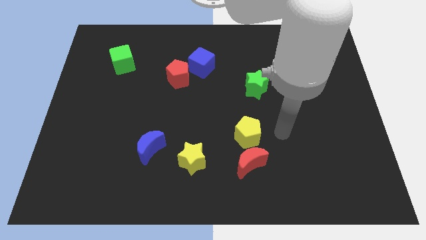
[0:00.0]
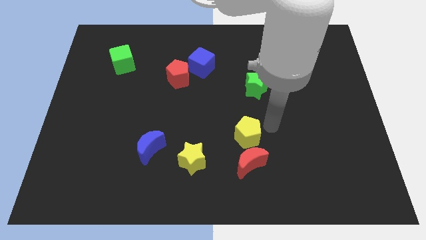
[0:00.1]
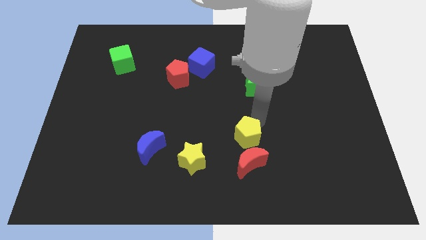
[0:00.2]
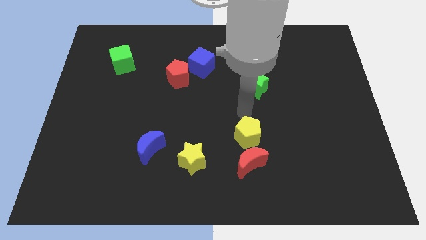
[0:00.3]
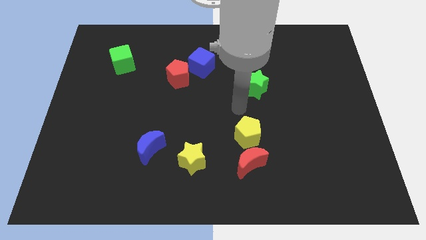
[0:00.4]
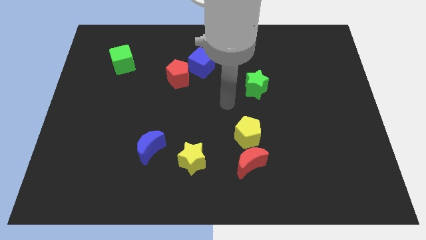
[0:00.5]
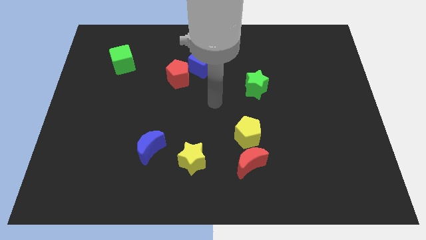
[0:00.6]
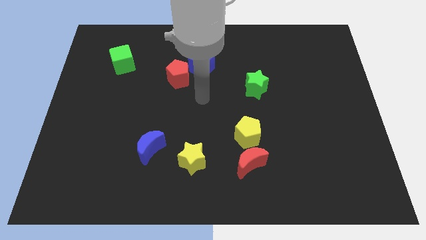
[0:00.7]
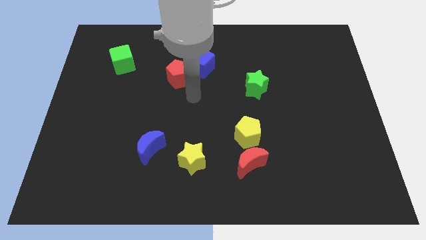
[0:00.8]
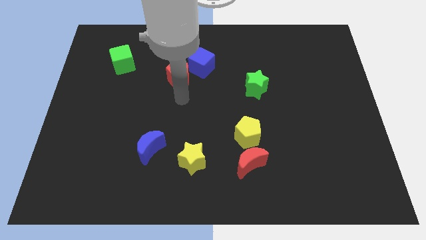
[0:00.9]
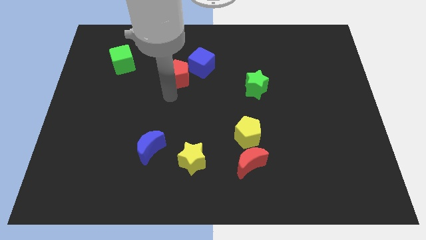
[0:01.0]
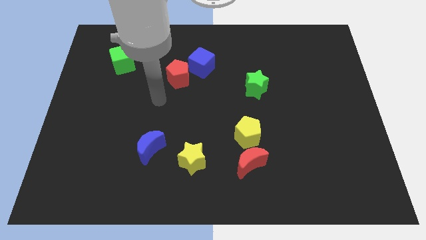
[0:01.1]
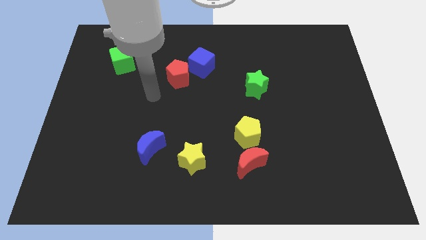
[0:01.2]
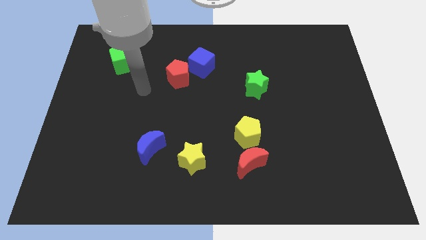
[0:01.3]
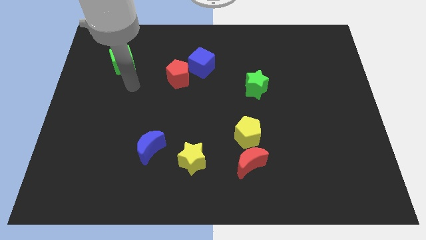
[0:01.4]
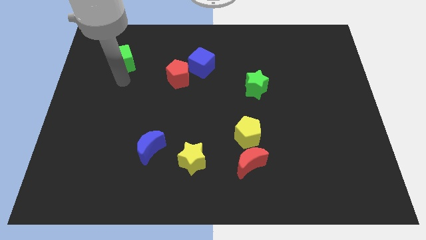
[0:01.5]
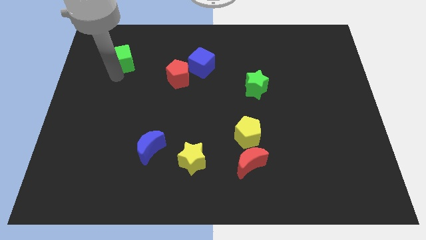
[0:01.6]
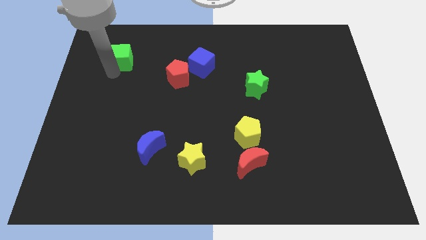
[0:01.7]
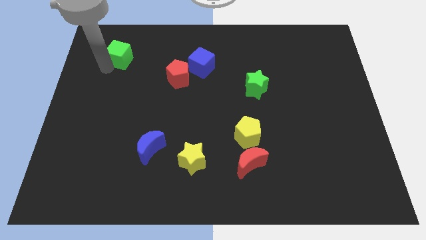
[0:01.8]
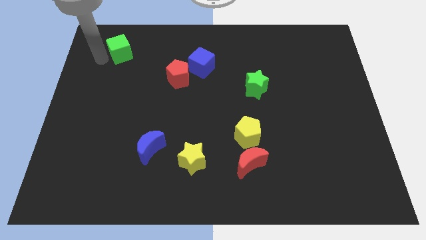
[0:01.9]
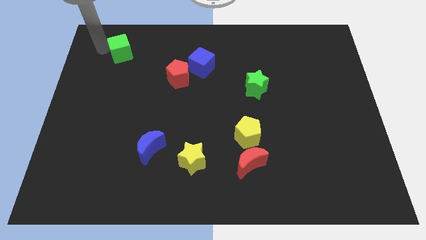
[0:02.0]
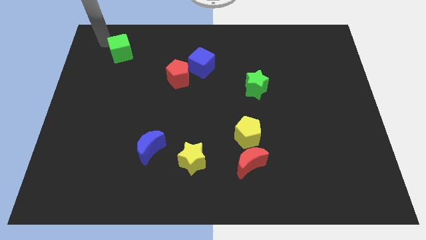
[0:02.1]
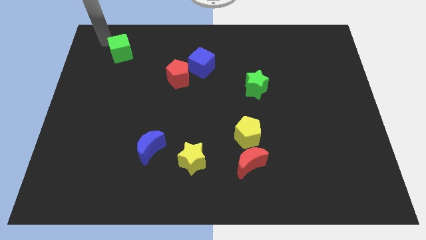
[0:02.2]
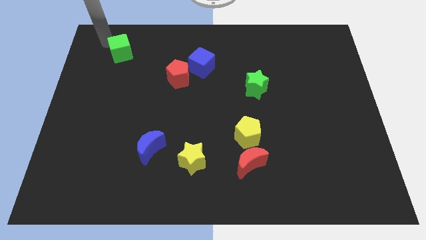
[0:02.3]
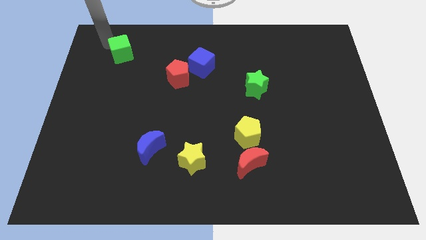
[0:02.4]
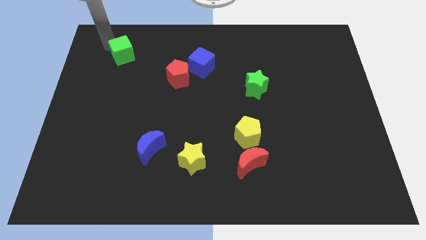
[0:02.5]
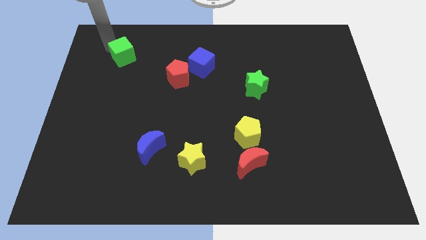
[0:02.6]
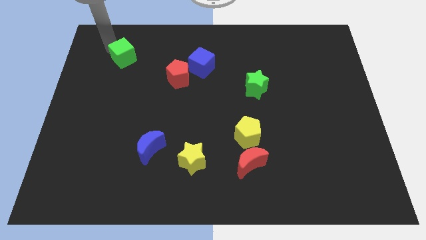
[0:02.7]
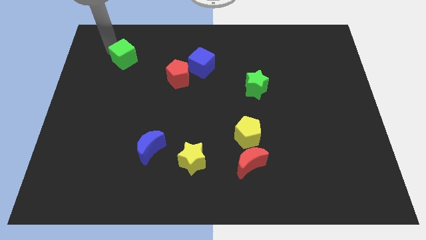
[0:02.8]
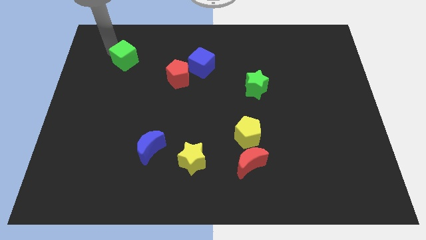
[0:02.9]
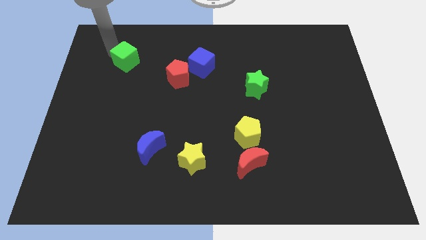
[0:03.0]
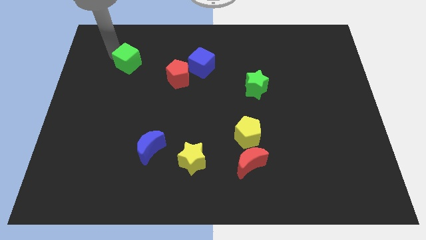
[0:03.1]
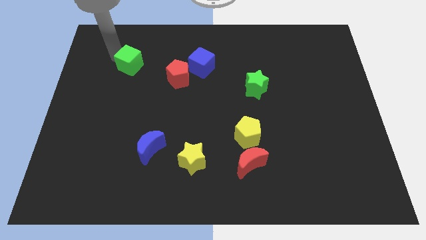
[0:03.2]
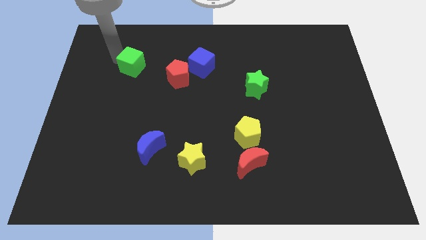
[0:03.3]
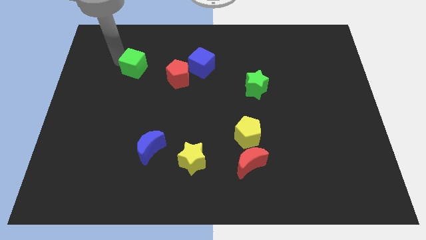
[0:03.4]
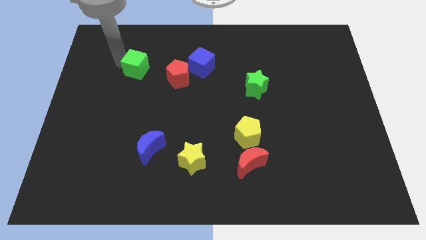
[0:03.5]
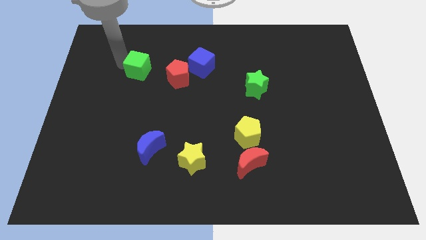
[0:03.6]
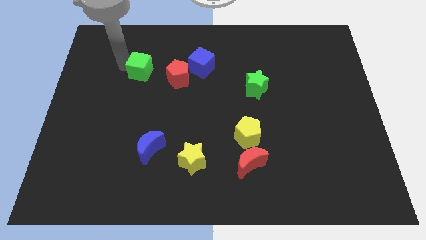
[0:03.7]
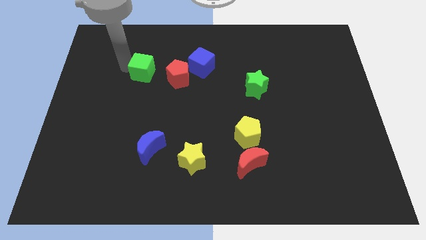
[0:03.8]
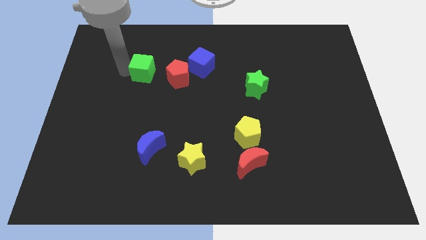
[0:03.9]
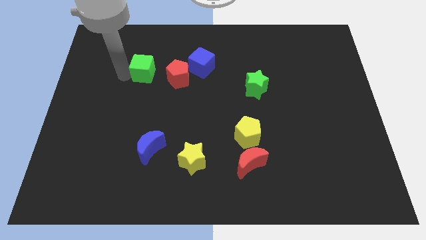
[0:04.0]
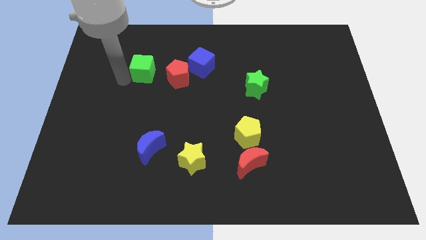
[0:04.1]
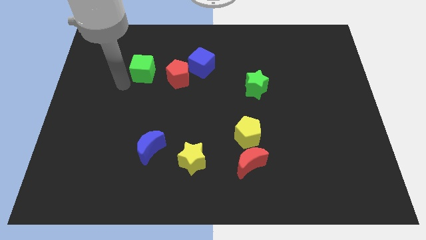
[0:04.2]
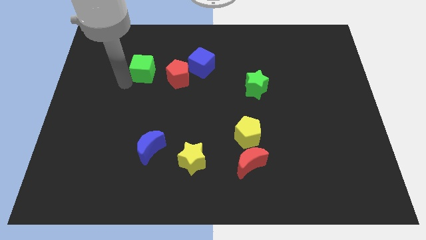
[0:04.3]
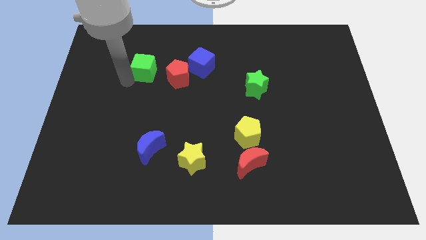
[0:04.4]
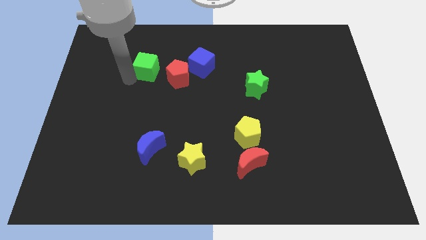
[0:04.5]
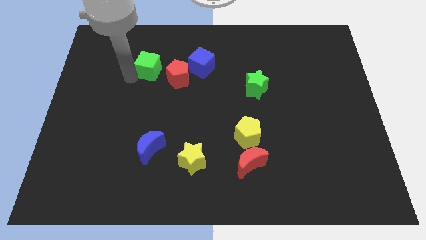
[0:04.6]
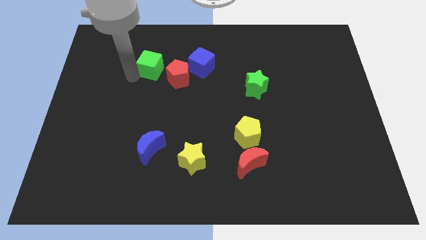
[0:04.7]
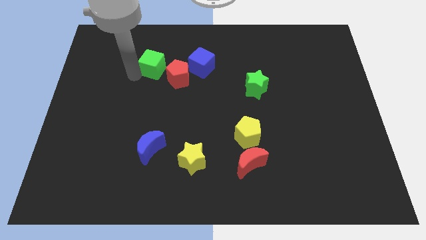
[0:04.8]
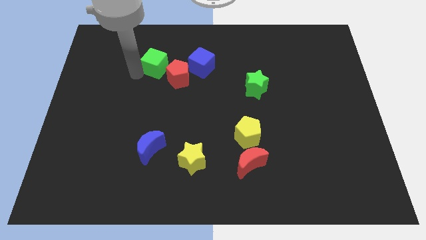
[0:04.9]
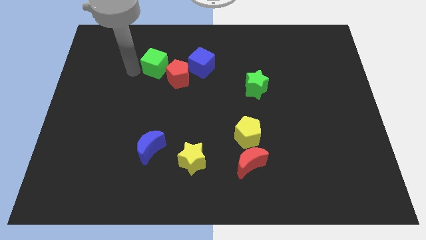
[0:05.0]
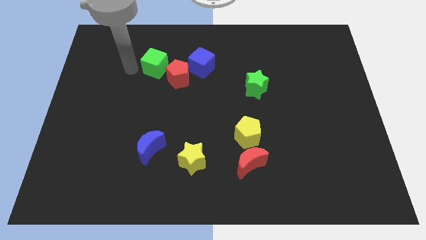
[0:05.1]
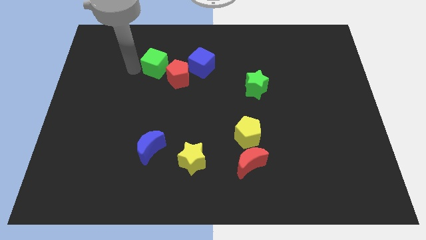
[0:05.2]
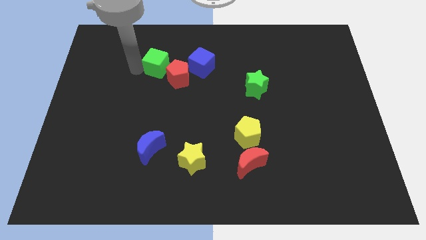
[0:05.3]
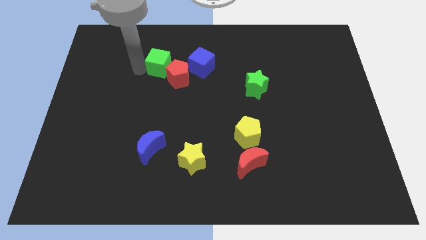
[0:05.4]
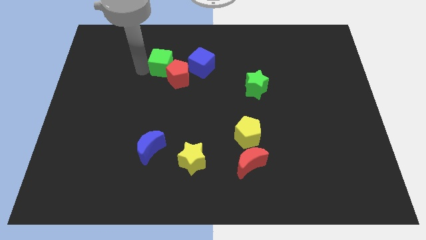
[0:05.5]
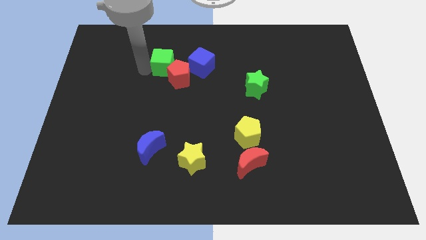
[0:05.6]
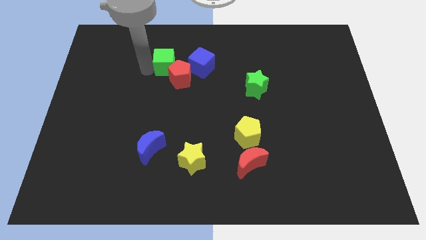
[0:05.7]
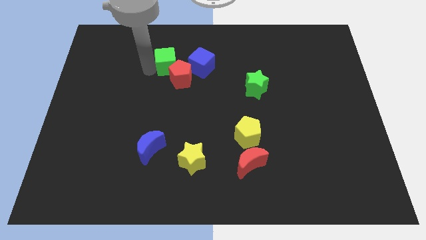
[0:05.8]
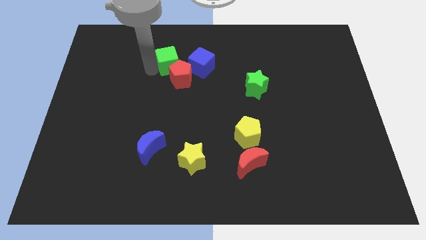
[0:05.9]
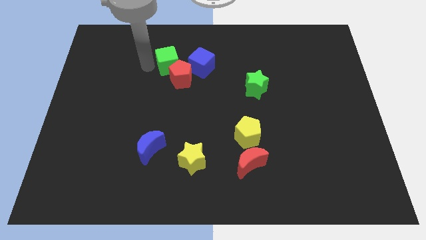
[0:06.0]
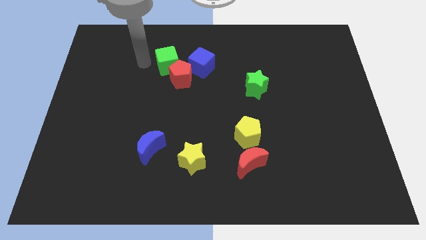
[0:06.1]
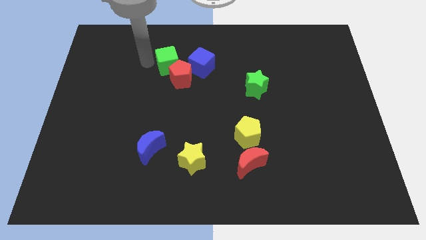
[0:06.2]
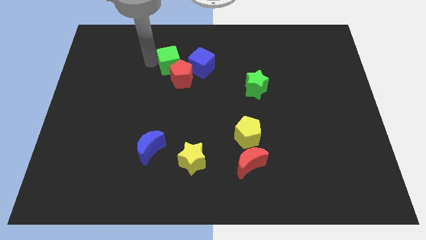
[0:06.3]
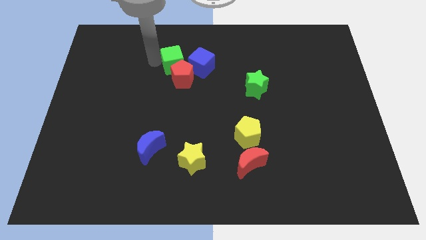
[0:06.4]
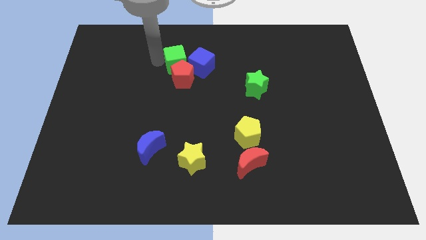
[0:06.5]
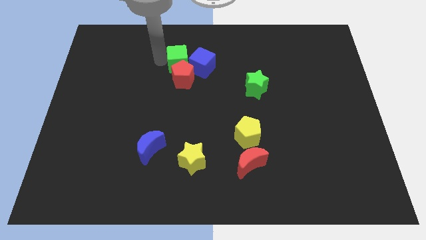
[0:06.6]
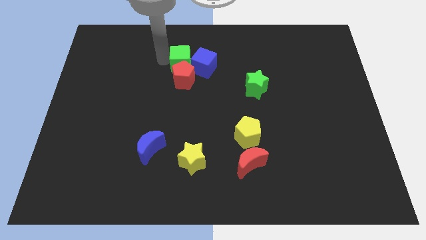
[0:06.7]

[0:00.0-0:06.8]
move the green cube to the blue cube

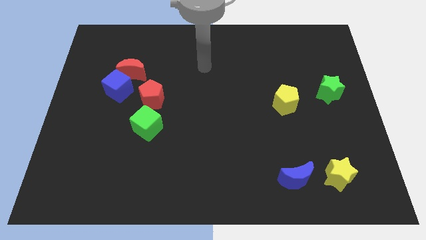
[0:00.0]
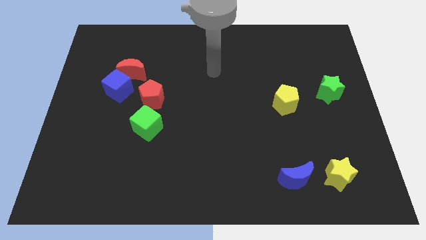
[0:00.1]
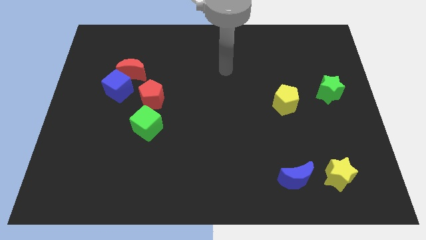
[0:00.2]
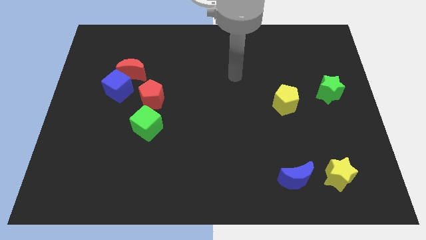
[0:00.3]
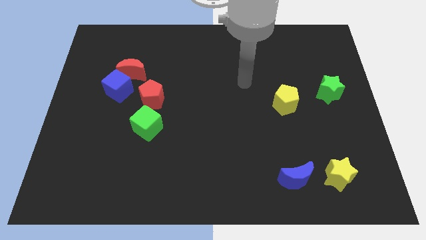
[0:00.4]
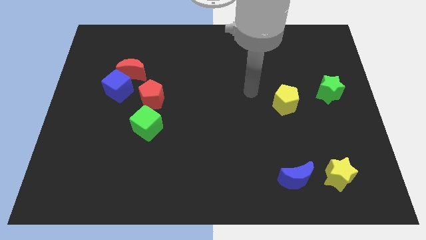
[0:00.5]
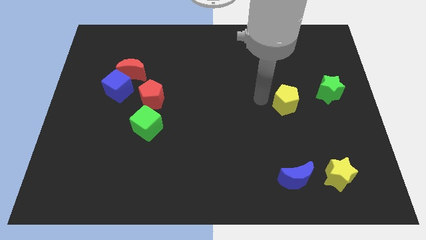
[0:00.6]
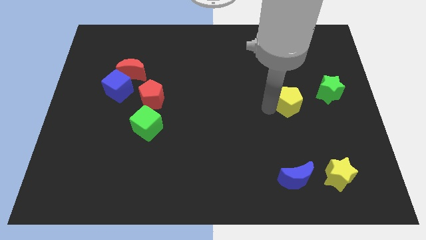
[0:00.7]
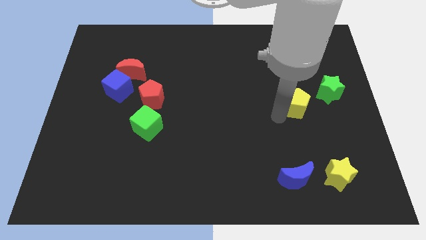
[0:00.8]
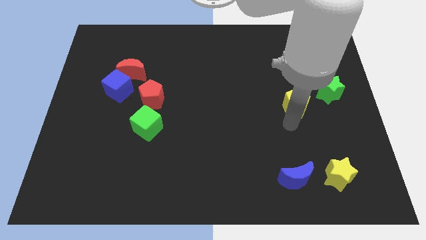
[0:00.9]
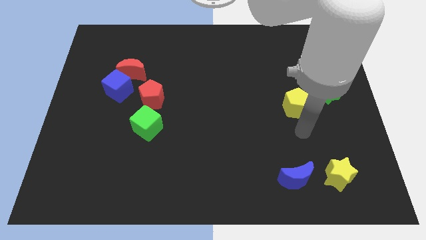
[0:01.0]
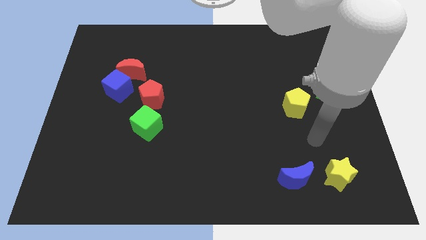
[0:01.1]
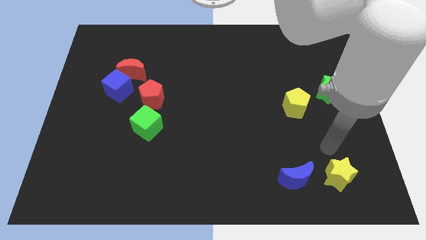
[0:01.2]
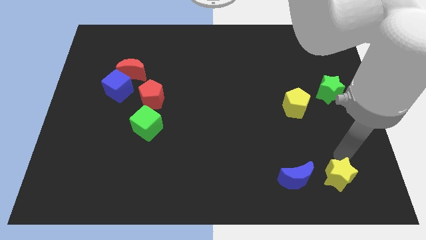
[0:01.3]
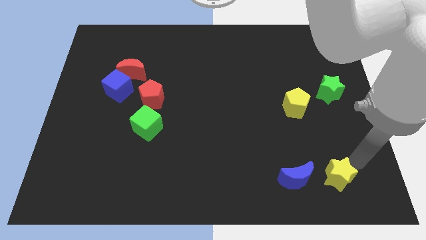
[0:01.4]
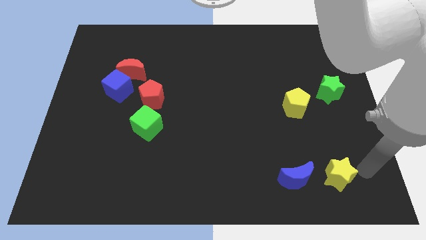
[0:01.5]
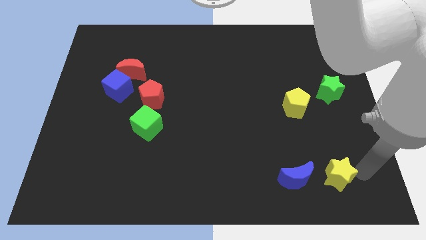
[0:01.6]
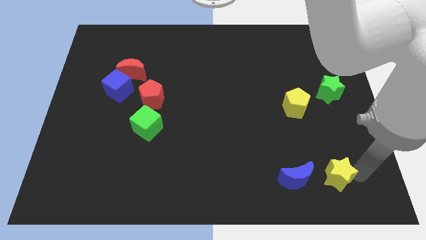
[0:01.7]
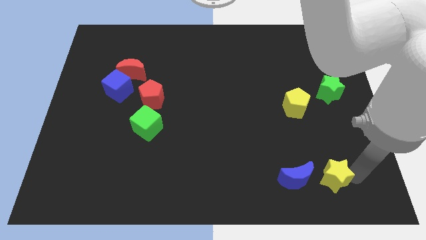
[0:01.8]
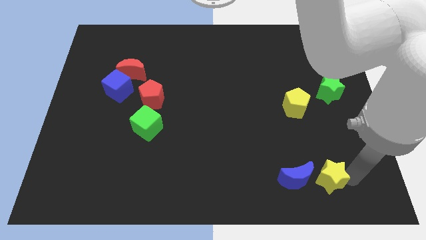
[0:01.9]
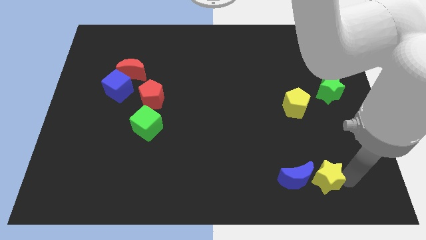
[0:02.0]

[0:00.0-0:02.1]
move the yellow star towards the blue moon
